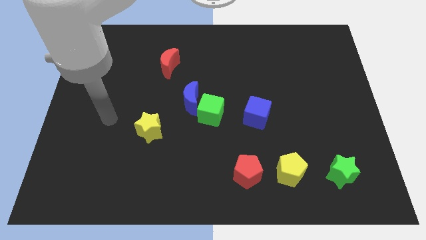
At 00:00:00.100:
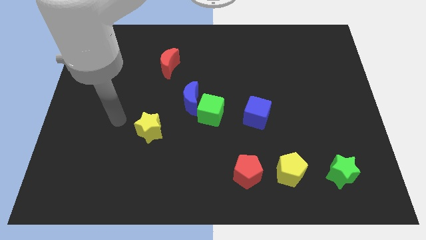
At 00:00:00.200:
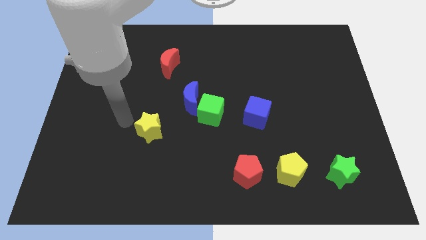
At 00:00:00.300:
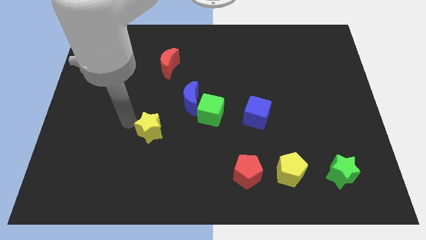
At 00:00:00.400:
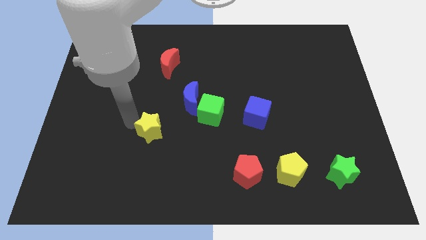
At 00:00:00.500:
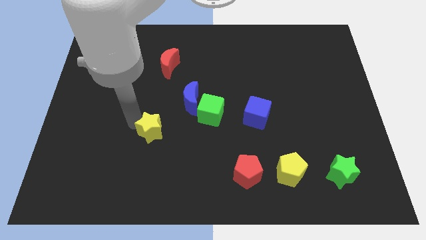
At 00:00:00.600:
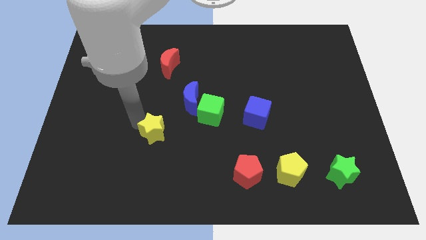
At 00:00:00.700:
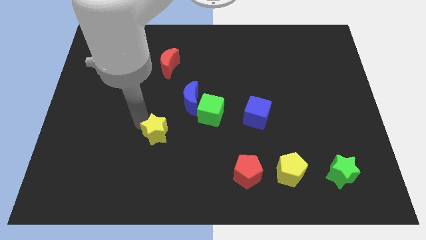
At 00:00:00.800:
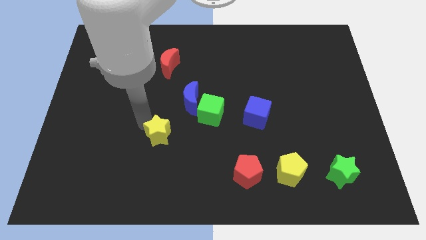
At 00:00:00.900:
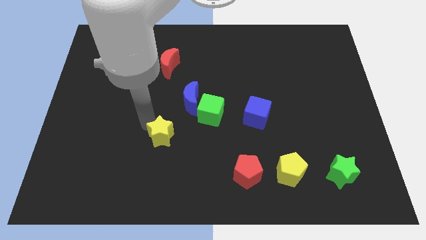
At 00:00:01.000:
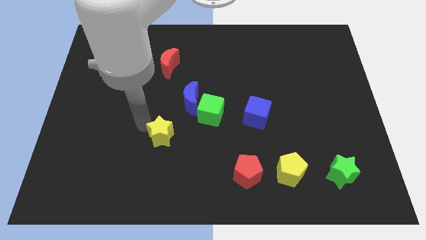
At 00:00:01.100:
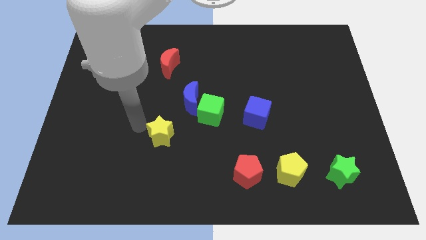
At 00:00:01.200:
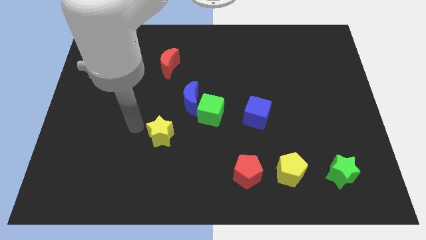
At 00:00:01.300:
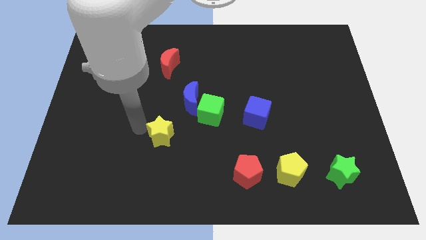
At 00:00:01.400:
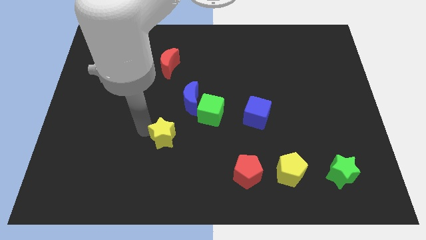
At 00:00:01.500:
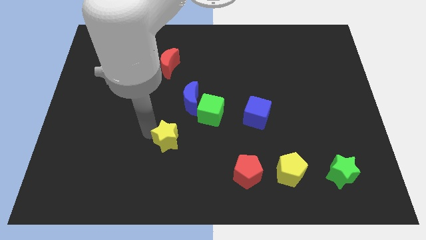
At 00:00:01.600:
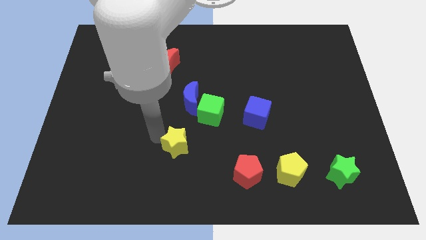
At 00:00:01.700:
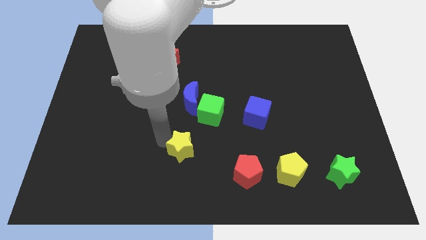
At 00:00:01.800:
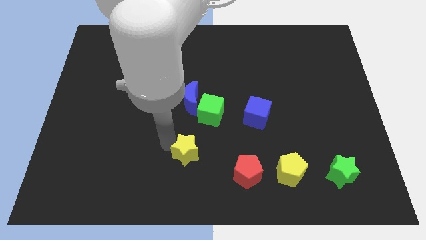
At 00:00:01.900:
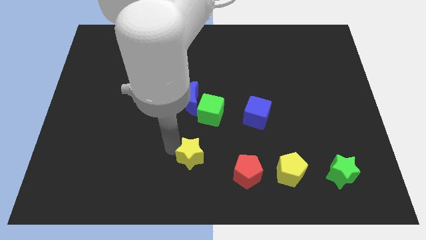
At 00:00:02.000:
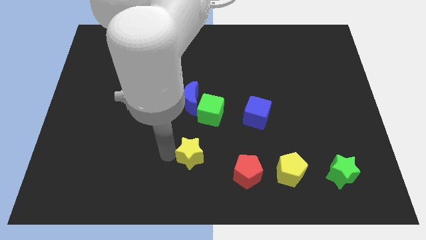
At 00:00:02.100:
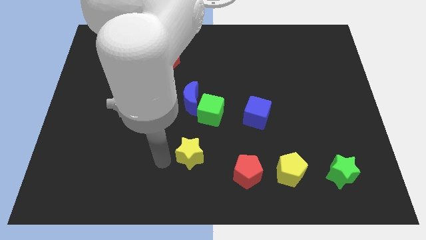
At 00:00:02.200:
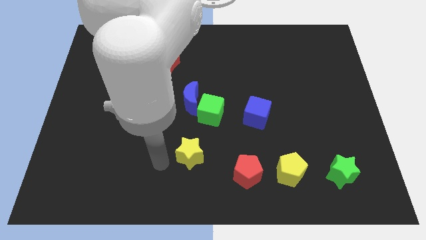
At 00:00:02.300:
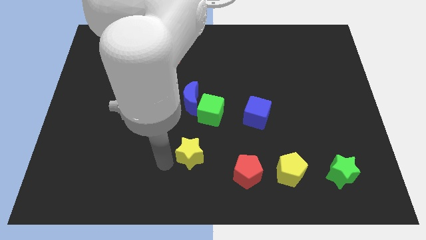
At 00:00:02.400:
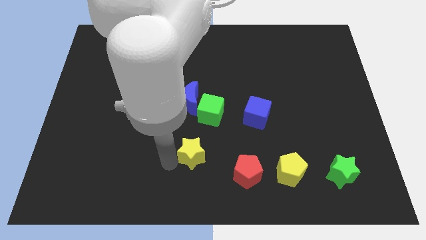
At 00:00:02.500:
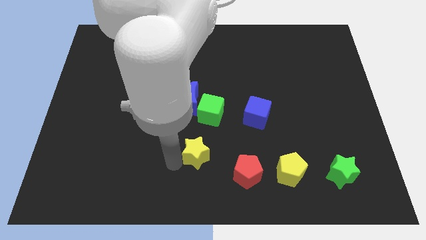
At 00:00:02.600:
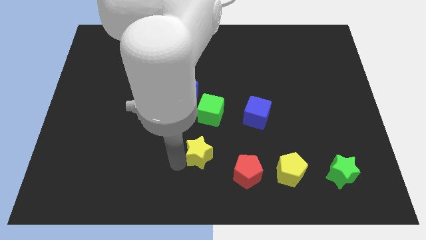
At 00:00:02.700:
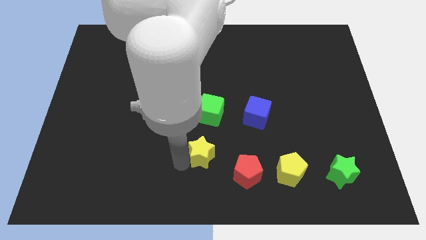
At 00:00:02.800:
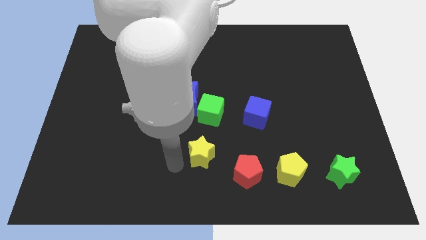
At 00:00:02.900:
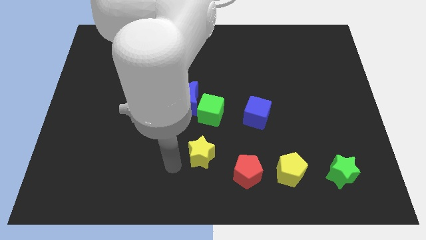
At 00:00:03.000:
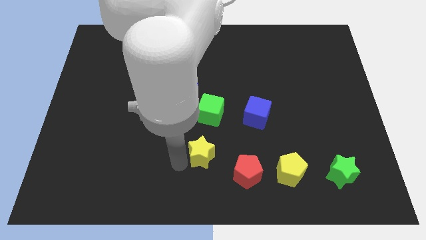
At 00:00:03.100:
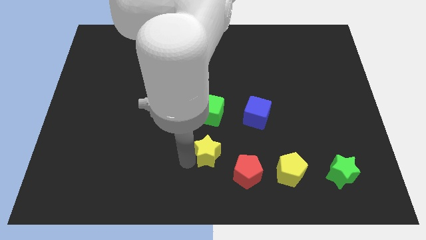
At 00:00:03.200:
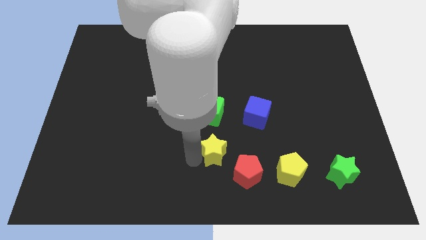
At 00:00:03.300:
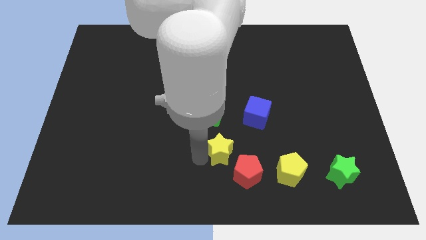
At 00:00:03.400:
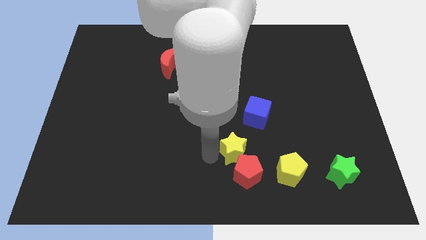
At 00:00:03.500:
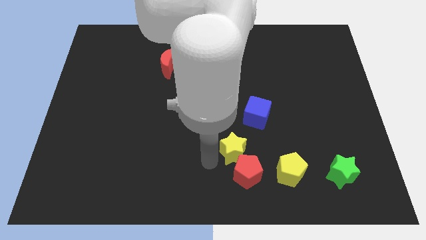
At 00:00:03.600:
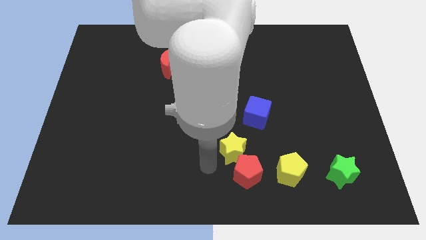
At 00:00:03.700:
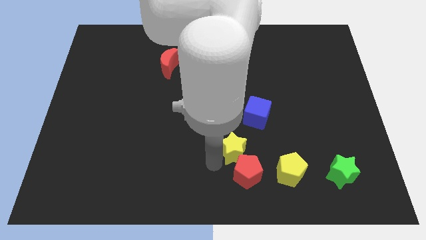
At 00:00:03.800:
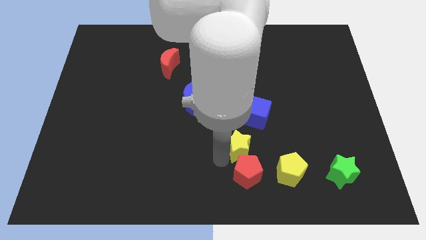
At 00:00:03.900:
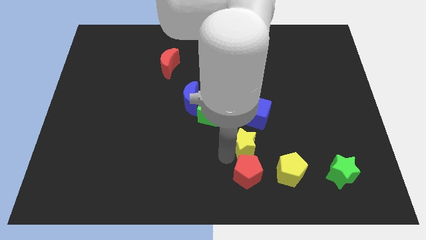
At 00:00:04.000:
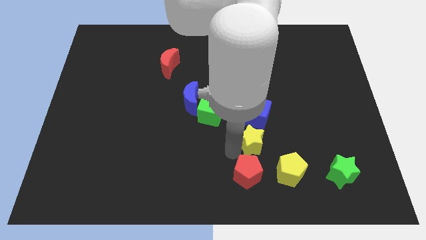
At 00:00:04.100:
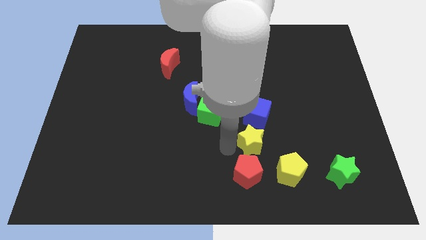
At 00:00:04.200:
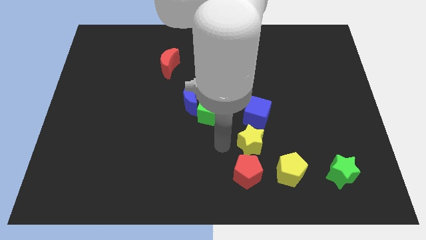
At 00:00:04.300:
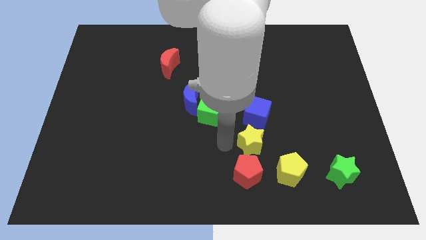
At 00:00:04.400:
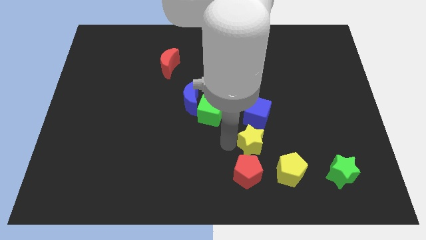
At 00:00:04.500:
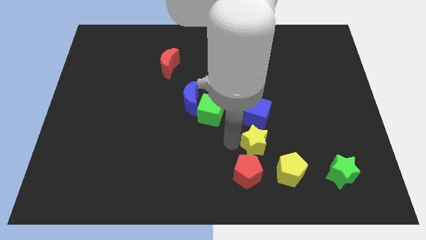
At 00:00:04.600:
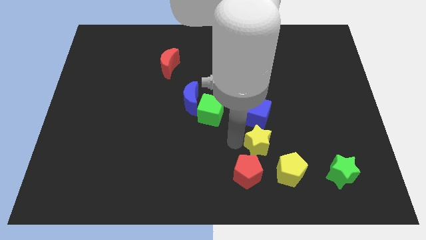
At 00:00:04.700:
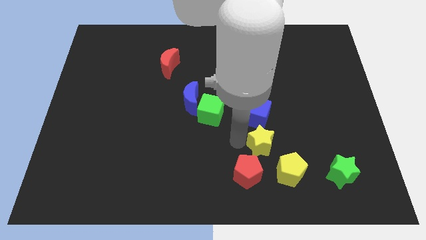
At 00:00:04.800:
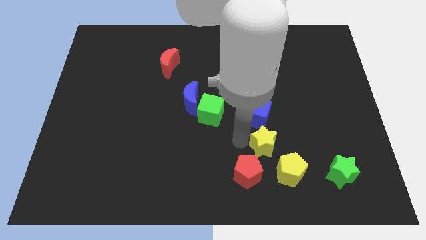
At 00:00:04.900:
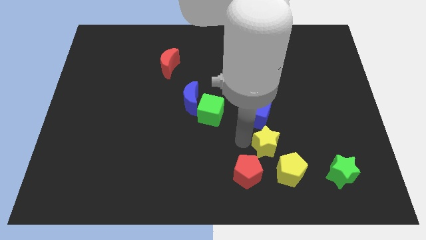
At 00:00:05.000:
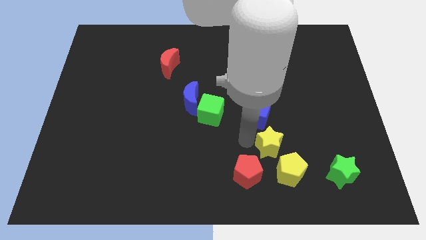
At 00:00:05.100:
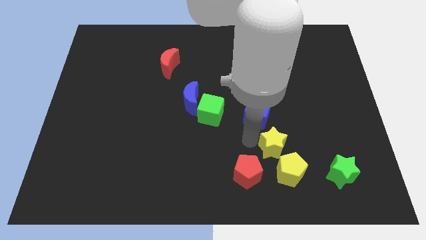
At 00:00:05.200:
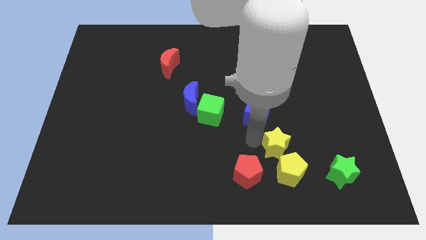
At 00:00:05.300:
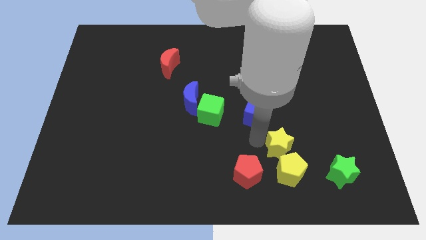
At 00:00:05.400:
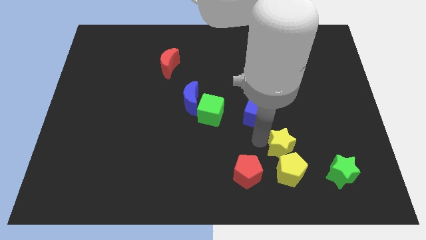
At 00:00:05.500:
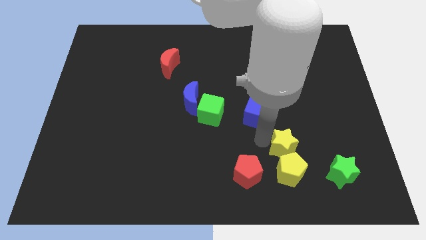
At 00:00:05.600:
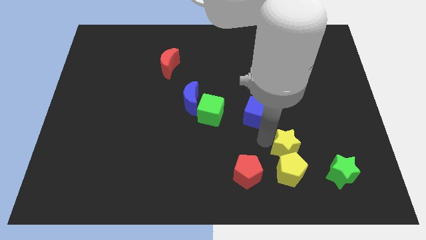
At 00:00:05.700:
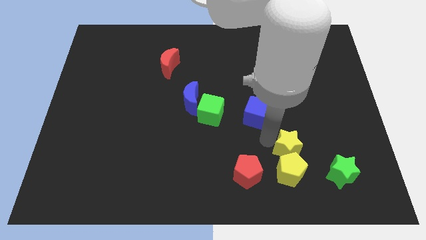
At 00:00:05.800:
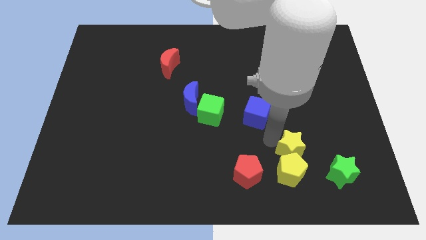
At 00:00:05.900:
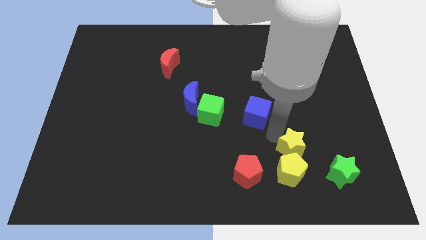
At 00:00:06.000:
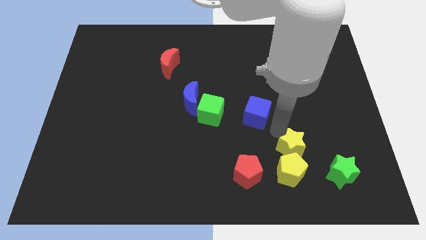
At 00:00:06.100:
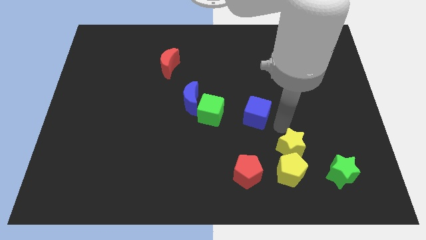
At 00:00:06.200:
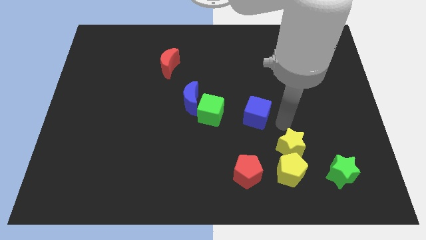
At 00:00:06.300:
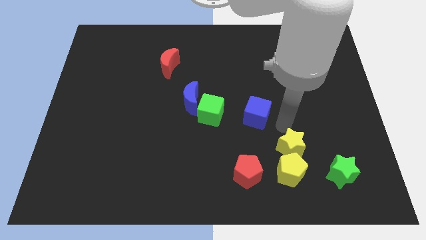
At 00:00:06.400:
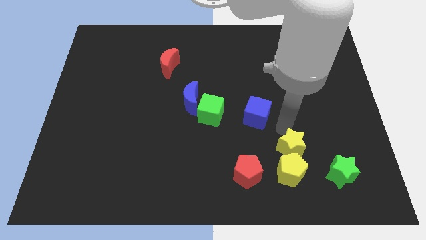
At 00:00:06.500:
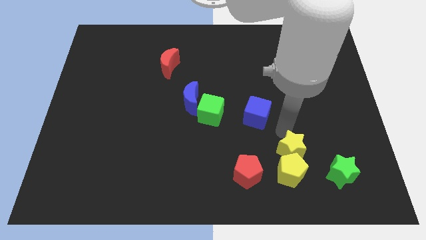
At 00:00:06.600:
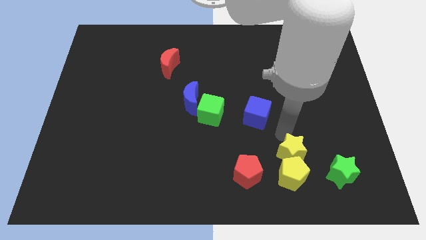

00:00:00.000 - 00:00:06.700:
push the yellow star just right of the red pentagon

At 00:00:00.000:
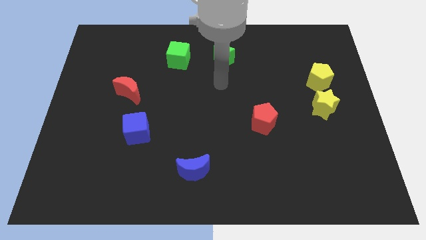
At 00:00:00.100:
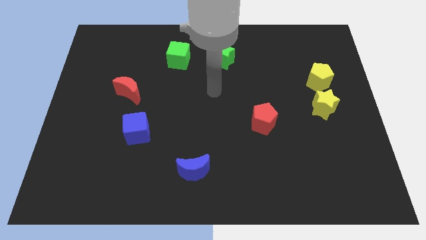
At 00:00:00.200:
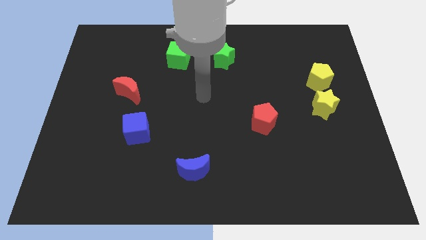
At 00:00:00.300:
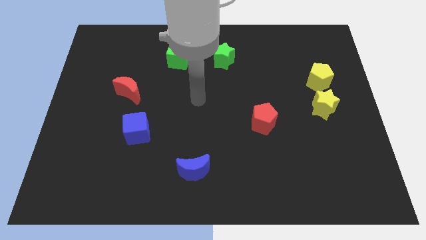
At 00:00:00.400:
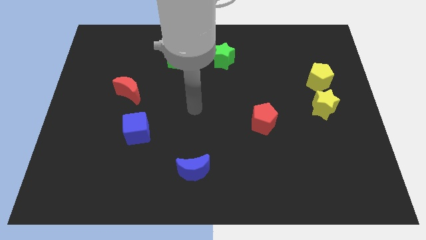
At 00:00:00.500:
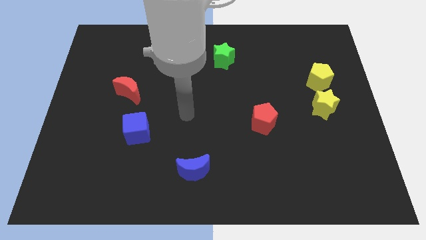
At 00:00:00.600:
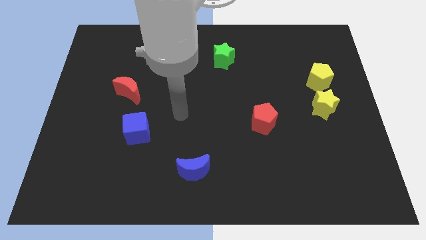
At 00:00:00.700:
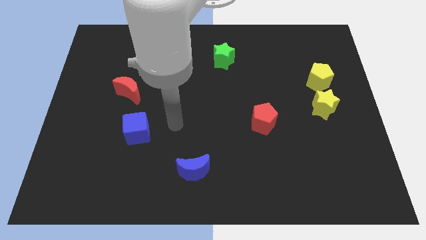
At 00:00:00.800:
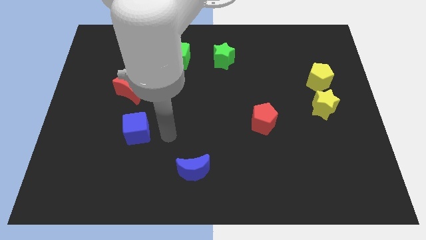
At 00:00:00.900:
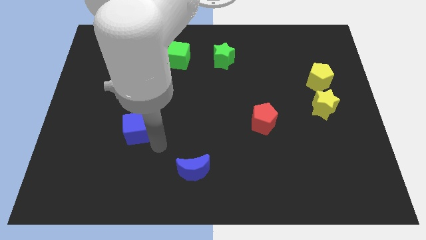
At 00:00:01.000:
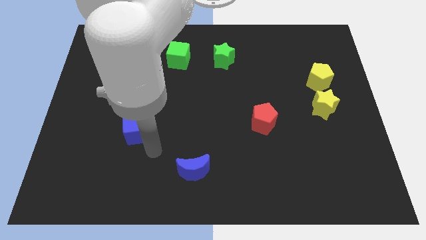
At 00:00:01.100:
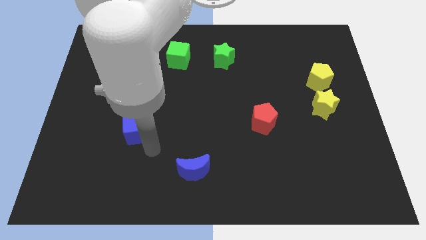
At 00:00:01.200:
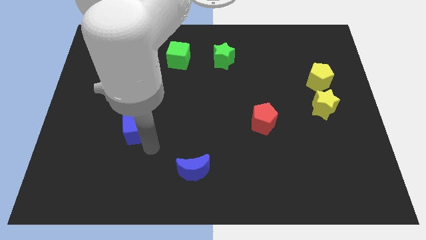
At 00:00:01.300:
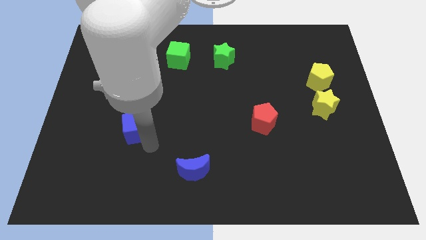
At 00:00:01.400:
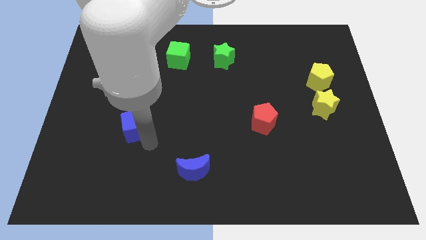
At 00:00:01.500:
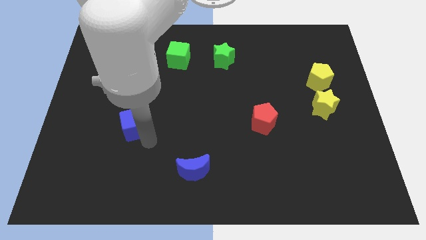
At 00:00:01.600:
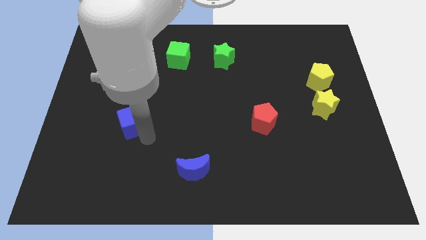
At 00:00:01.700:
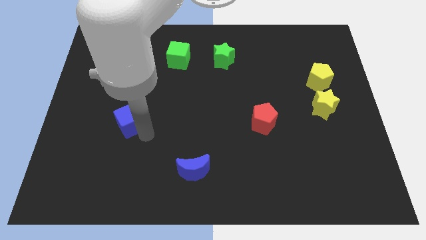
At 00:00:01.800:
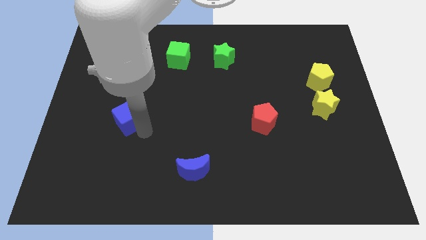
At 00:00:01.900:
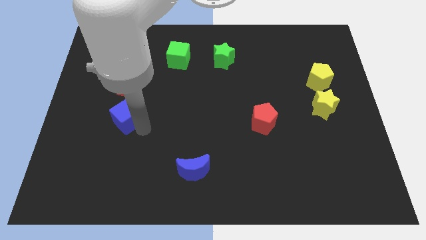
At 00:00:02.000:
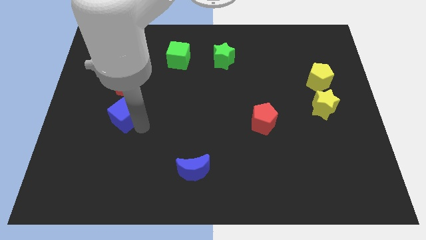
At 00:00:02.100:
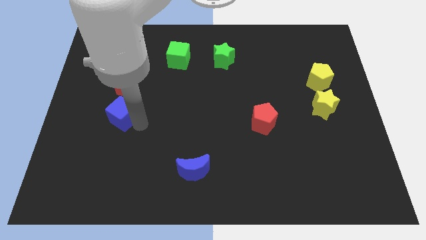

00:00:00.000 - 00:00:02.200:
put the blue cube diagonally down and to the left of the red moon
